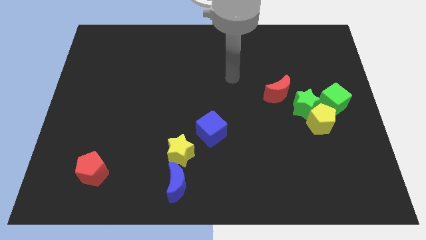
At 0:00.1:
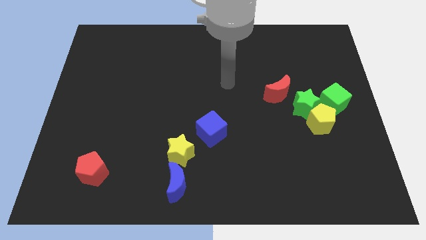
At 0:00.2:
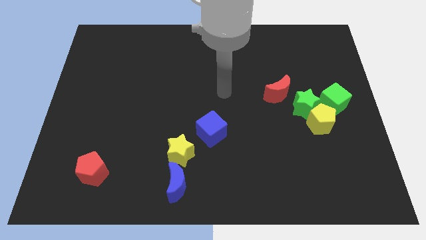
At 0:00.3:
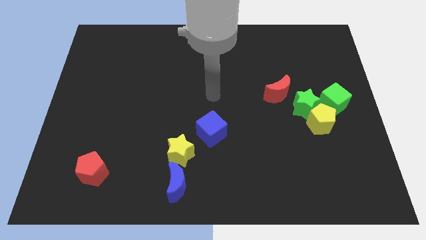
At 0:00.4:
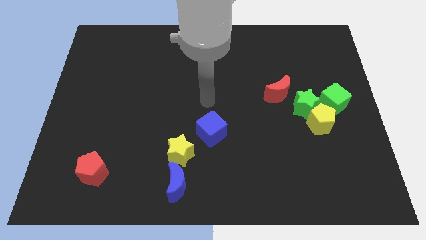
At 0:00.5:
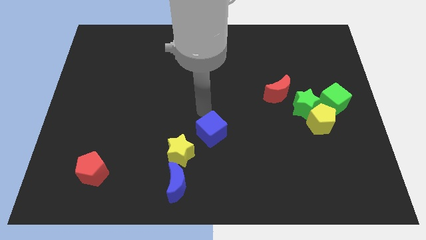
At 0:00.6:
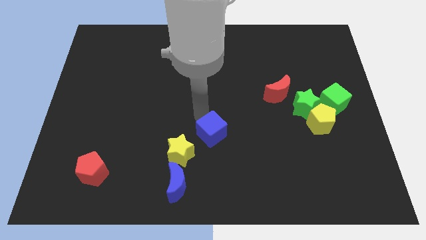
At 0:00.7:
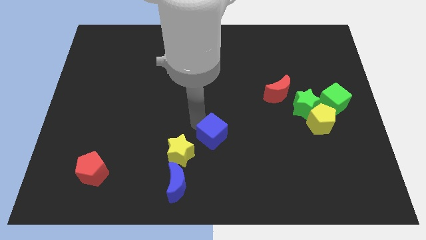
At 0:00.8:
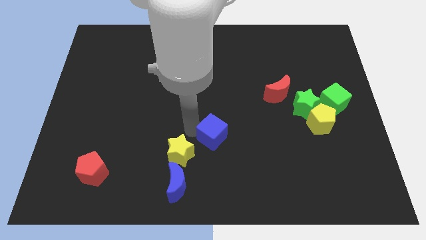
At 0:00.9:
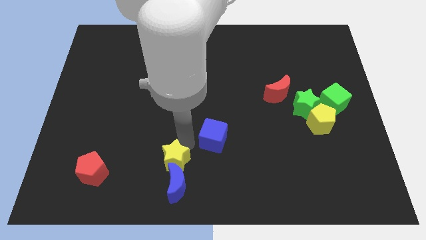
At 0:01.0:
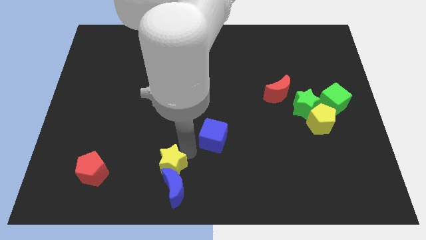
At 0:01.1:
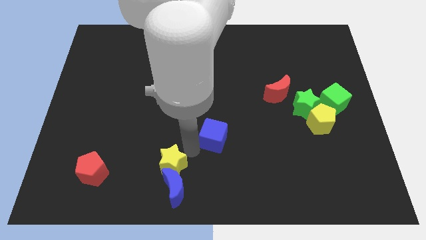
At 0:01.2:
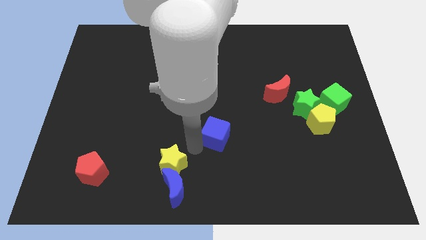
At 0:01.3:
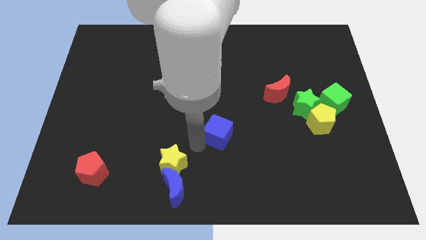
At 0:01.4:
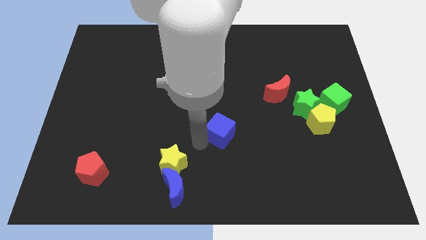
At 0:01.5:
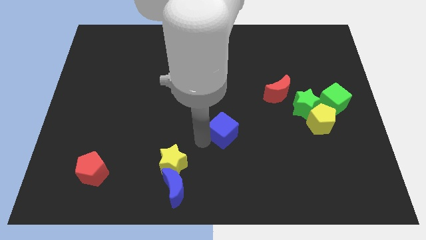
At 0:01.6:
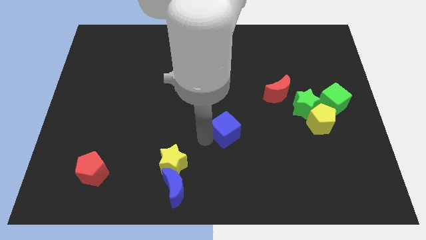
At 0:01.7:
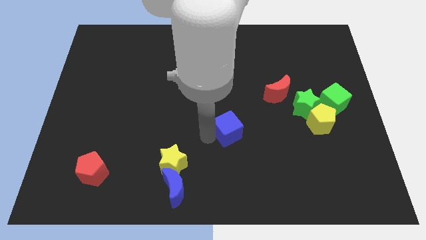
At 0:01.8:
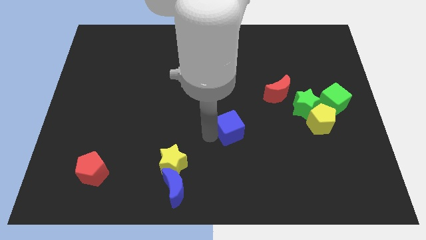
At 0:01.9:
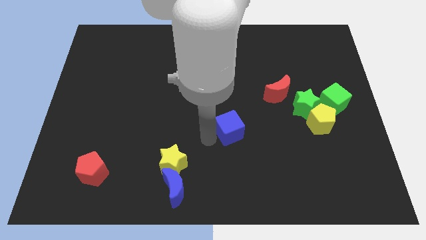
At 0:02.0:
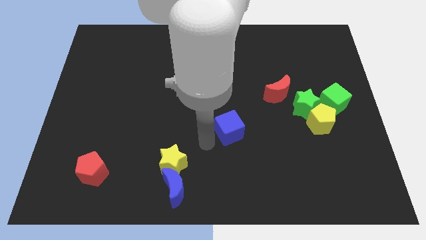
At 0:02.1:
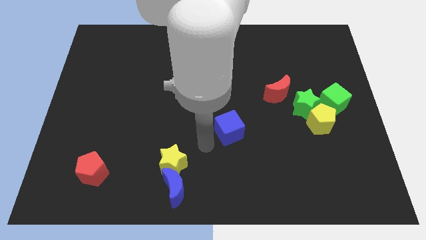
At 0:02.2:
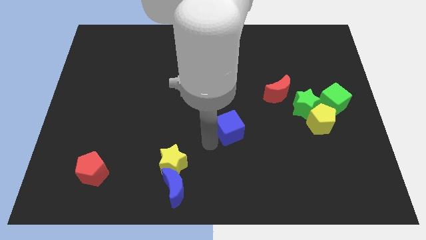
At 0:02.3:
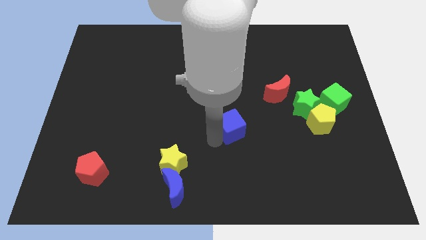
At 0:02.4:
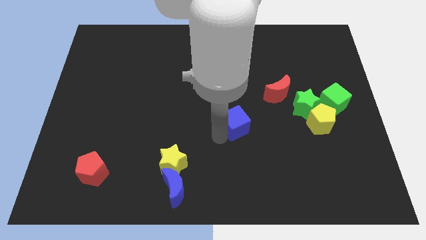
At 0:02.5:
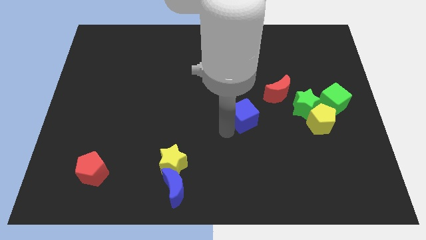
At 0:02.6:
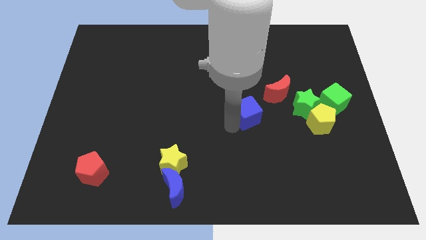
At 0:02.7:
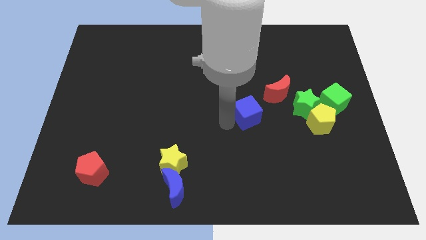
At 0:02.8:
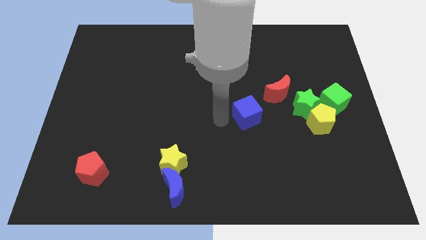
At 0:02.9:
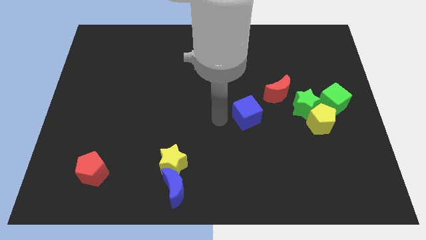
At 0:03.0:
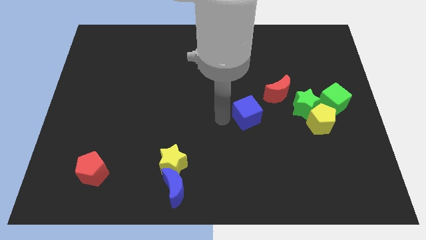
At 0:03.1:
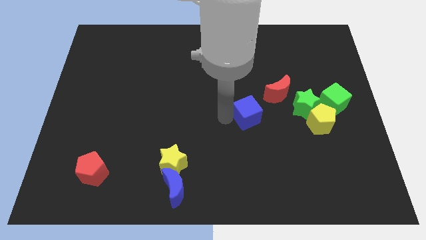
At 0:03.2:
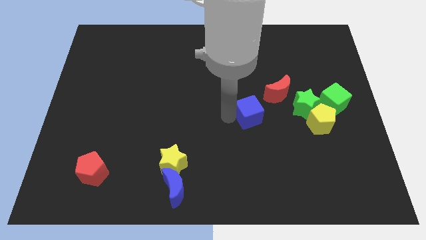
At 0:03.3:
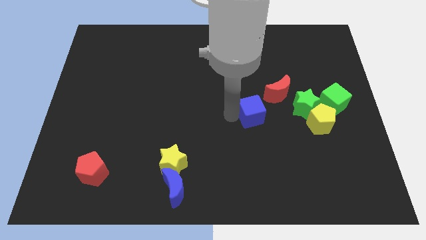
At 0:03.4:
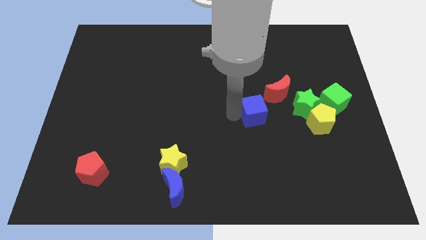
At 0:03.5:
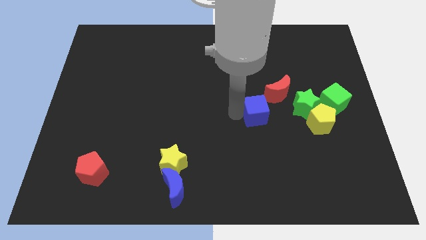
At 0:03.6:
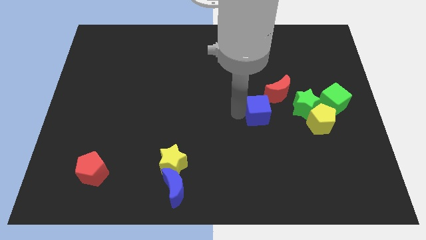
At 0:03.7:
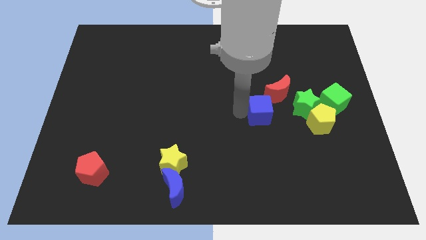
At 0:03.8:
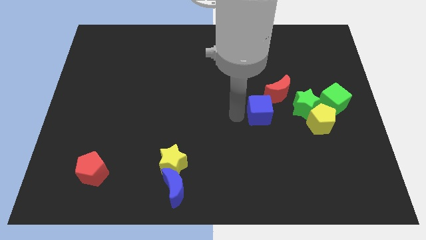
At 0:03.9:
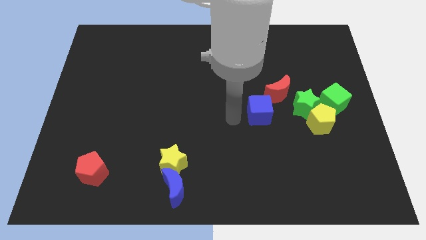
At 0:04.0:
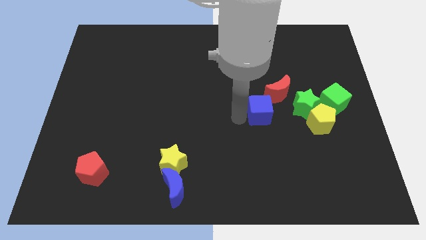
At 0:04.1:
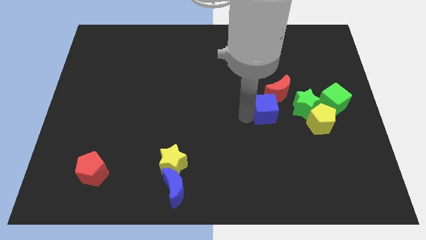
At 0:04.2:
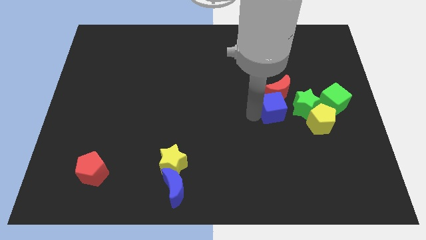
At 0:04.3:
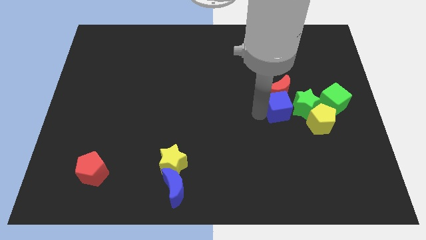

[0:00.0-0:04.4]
slide the blue cube close to the green star

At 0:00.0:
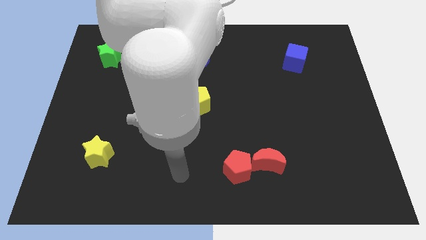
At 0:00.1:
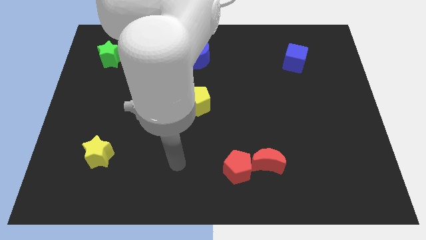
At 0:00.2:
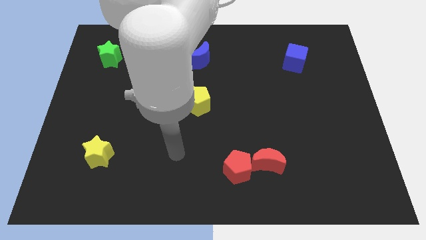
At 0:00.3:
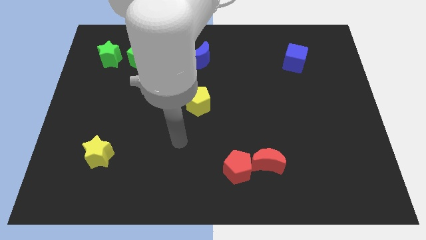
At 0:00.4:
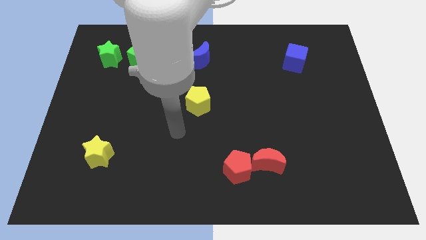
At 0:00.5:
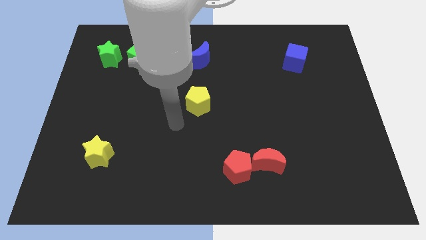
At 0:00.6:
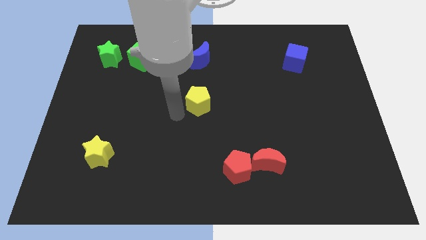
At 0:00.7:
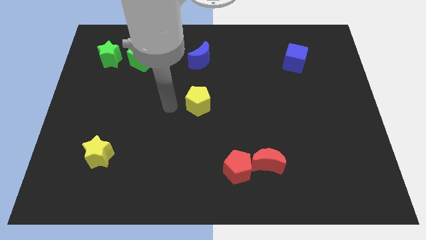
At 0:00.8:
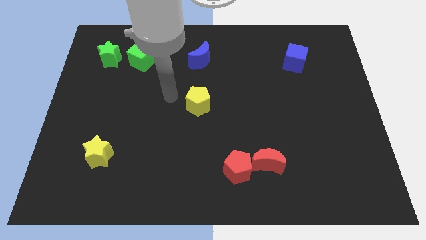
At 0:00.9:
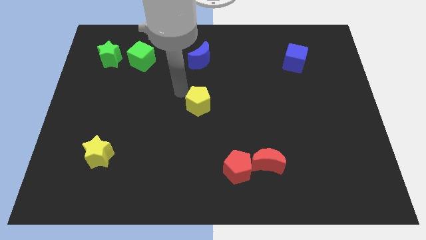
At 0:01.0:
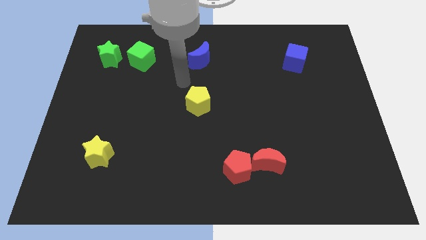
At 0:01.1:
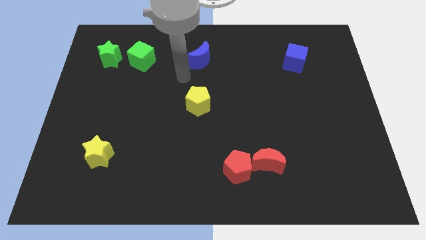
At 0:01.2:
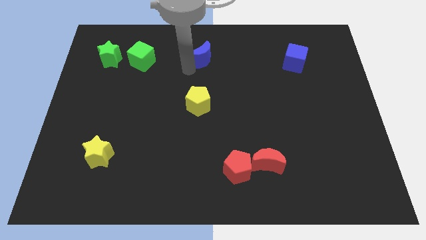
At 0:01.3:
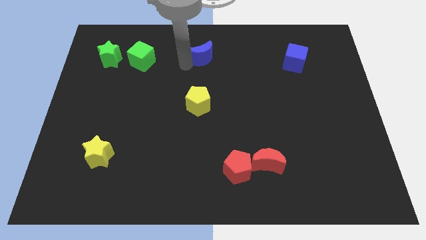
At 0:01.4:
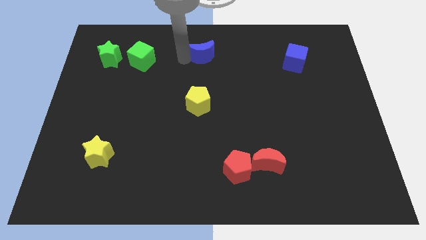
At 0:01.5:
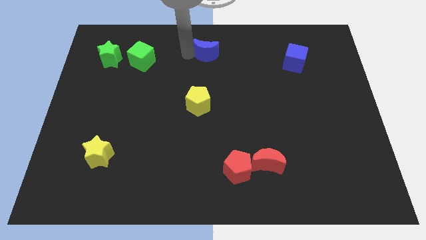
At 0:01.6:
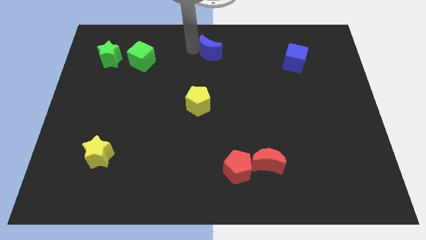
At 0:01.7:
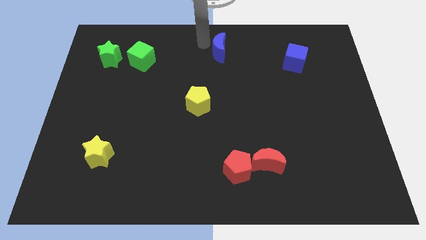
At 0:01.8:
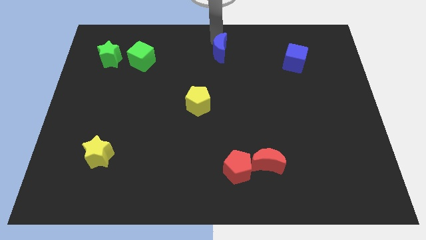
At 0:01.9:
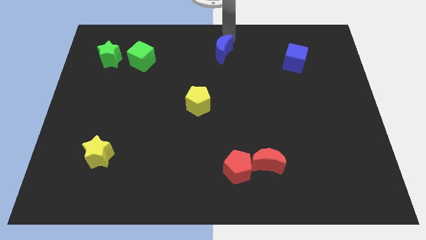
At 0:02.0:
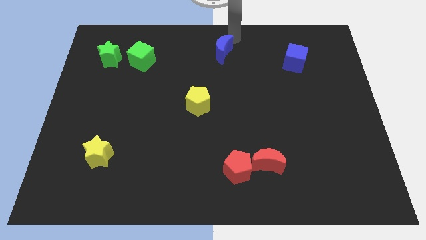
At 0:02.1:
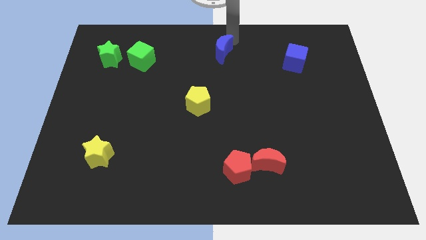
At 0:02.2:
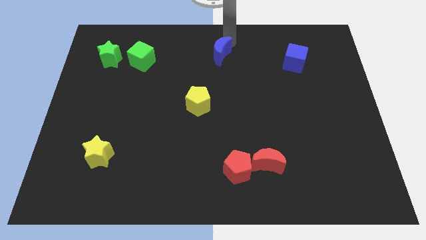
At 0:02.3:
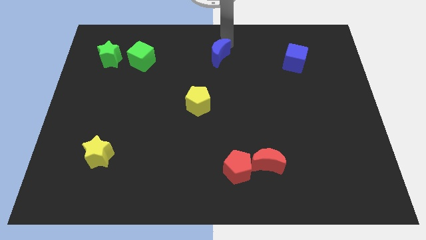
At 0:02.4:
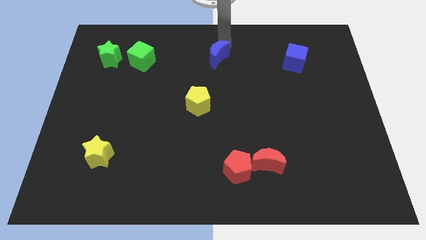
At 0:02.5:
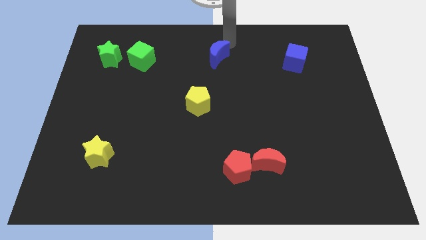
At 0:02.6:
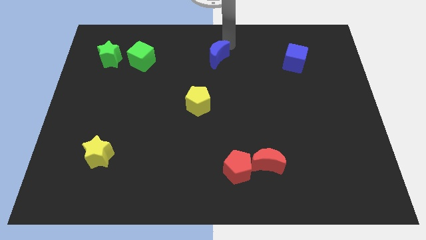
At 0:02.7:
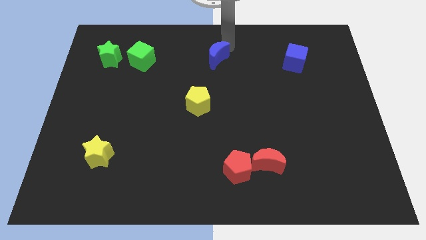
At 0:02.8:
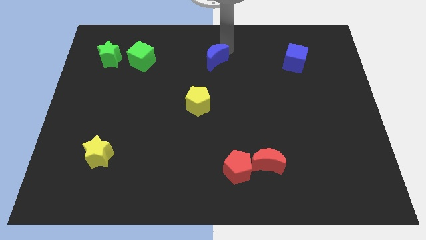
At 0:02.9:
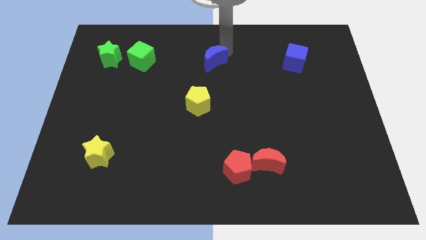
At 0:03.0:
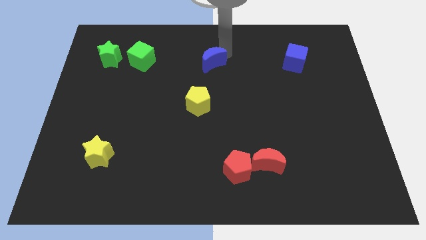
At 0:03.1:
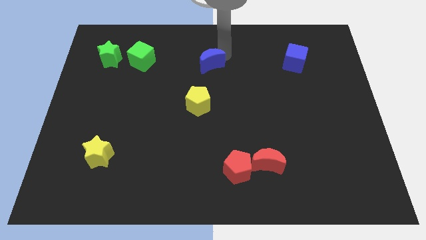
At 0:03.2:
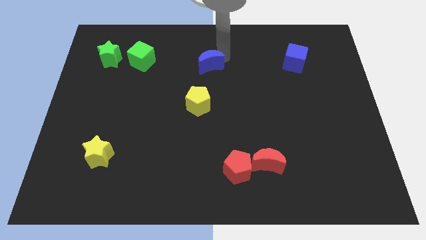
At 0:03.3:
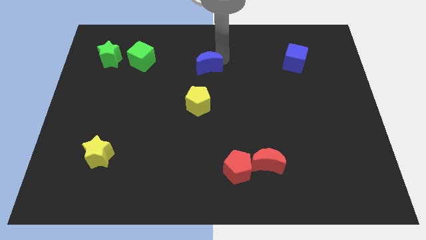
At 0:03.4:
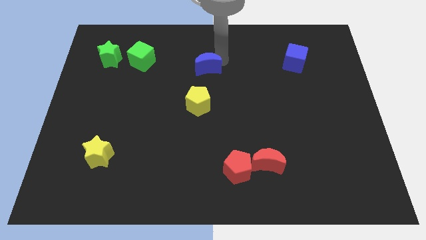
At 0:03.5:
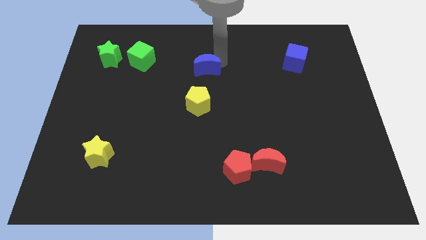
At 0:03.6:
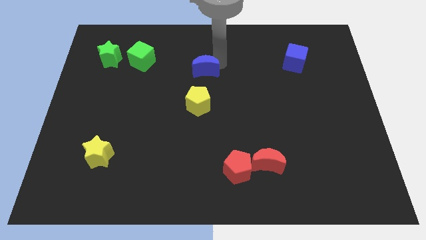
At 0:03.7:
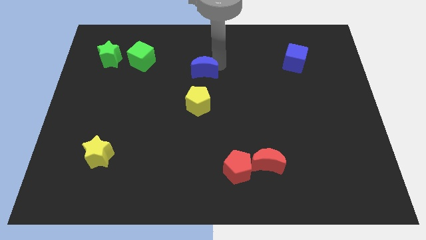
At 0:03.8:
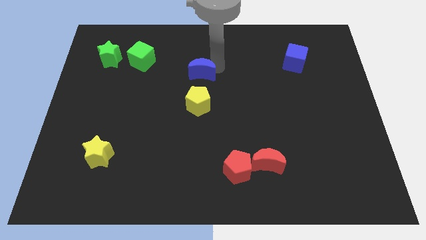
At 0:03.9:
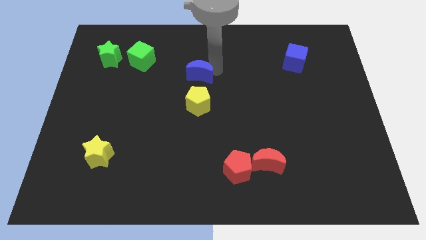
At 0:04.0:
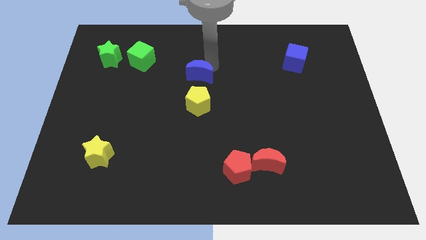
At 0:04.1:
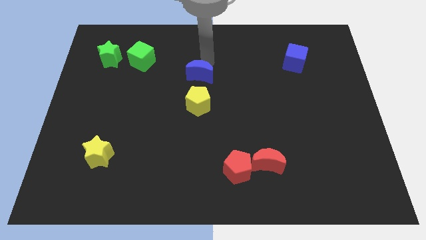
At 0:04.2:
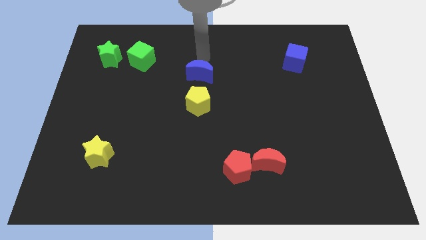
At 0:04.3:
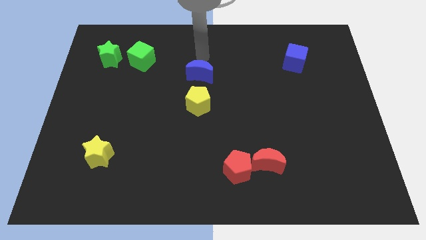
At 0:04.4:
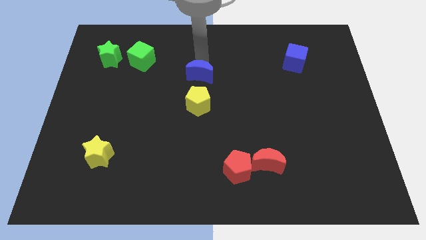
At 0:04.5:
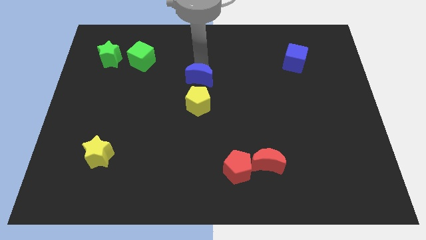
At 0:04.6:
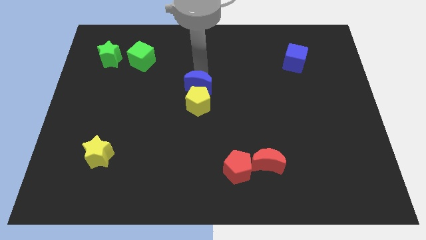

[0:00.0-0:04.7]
put the blue moon to the yellow pentagon
